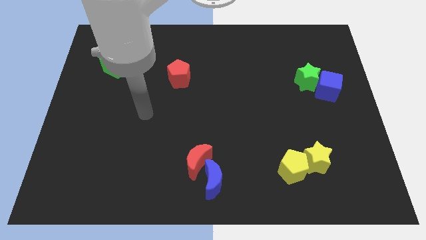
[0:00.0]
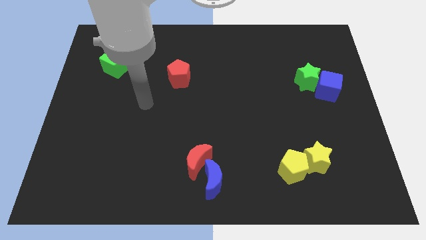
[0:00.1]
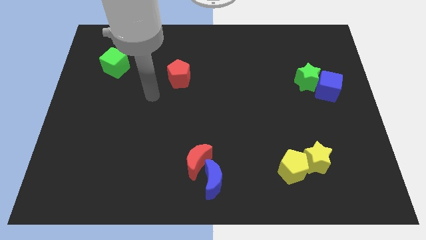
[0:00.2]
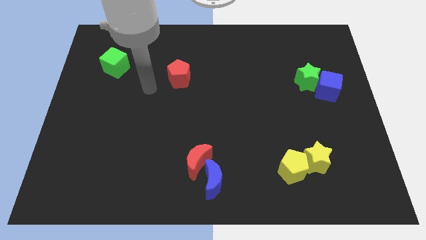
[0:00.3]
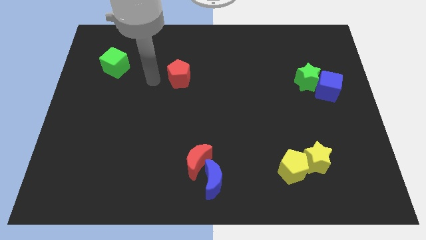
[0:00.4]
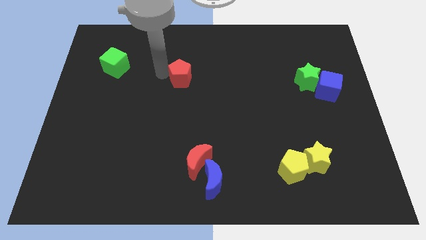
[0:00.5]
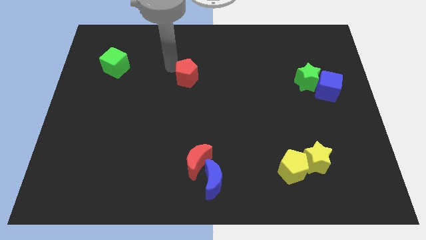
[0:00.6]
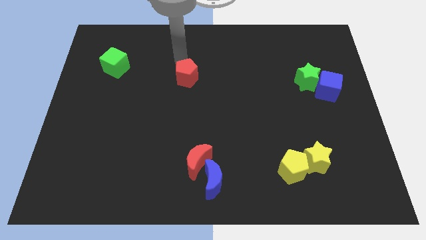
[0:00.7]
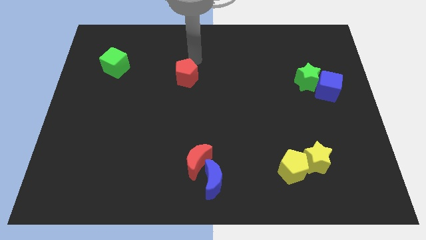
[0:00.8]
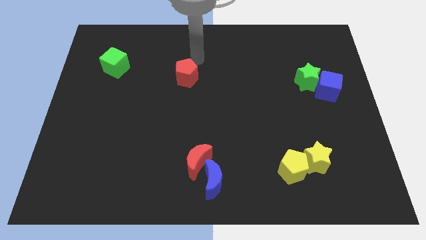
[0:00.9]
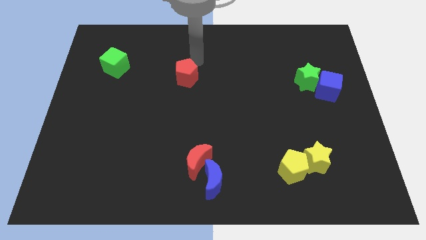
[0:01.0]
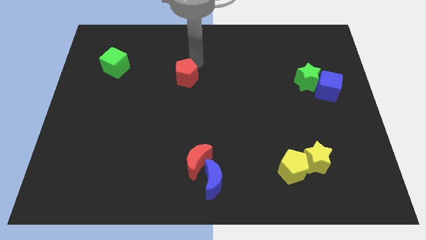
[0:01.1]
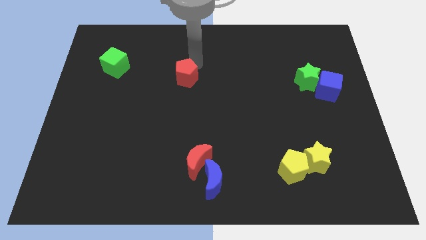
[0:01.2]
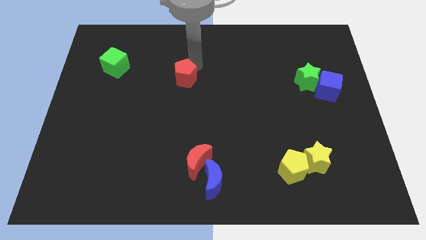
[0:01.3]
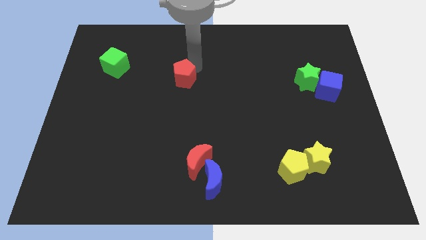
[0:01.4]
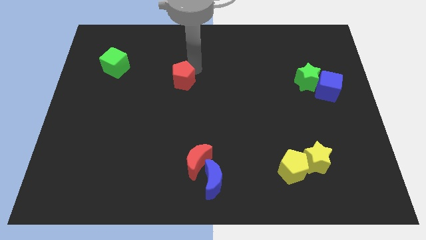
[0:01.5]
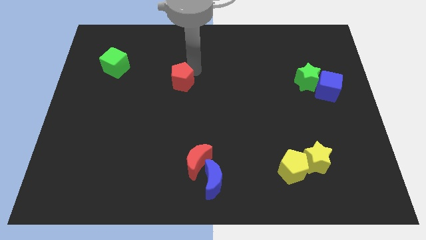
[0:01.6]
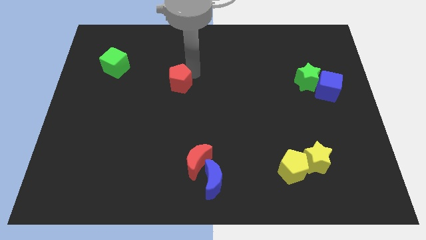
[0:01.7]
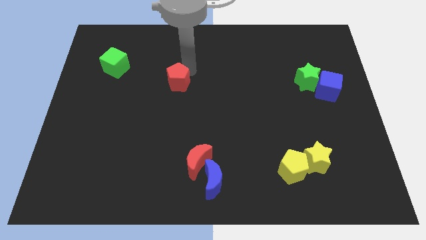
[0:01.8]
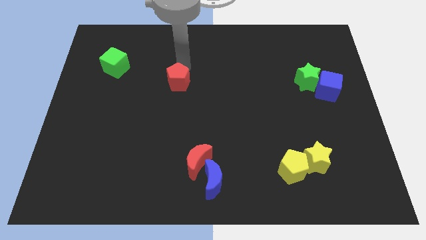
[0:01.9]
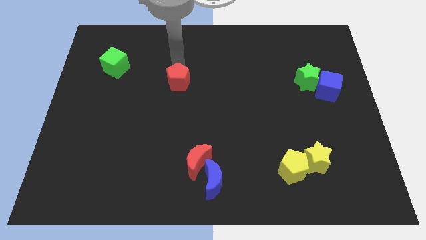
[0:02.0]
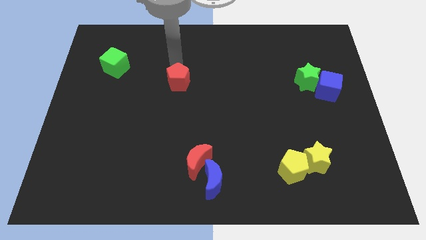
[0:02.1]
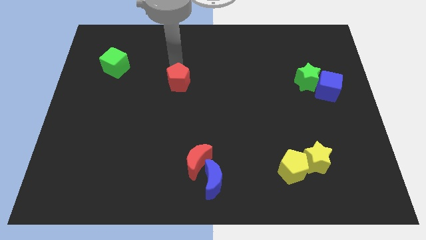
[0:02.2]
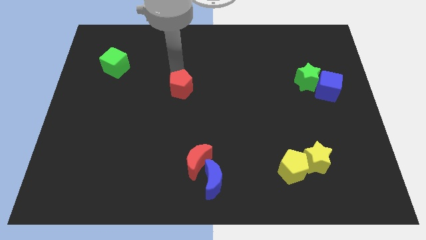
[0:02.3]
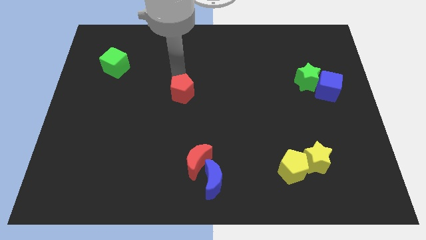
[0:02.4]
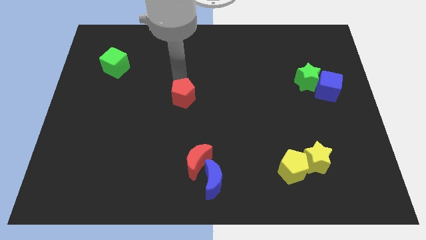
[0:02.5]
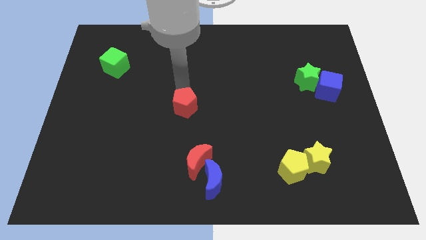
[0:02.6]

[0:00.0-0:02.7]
push the red pentagon somewhat downwards

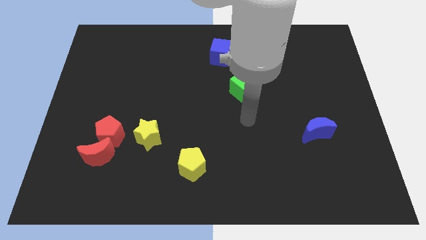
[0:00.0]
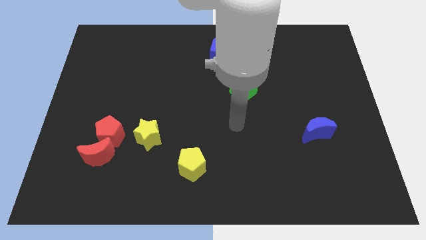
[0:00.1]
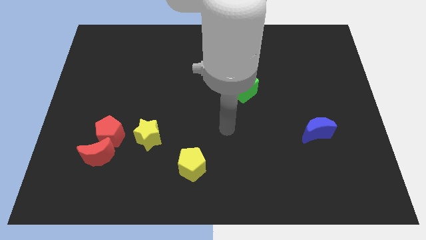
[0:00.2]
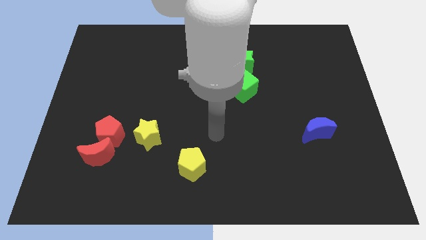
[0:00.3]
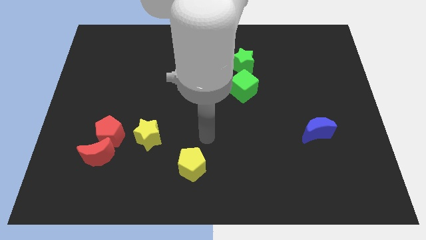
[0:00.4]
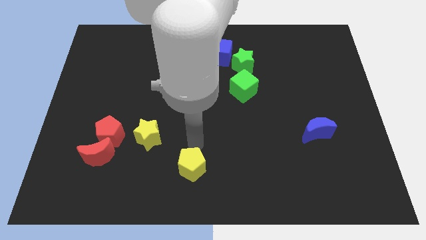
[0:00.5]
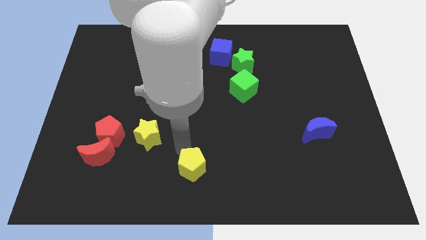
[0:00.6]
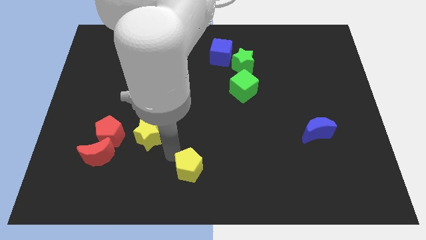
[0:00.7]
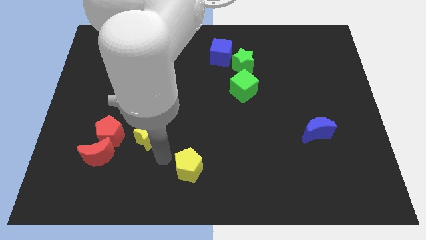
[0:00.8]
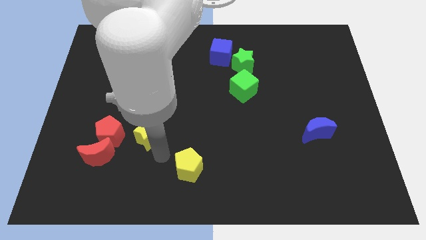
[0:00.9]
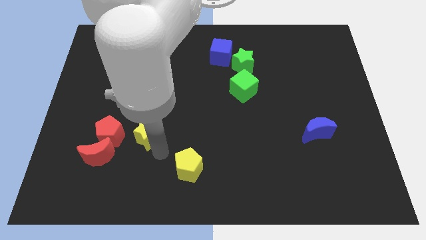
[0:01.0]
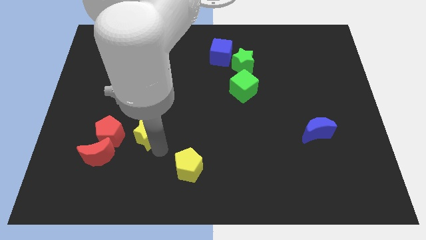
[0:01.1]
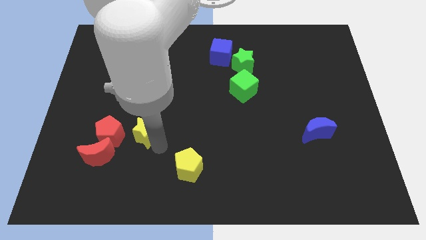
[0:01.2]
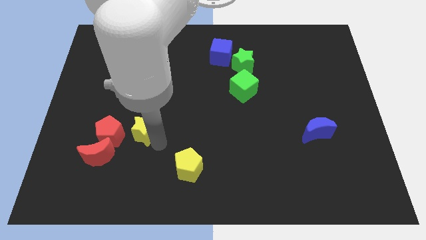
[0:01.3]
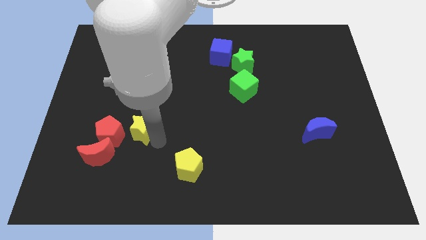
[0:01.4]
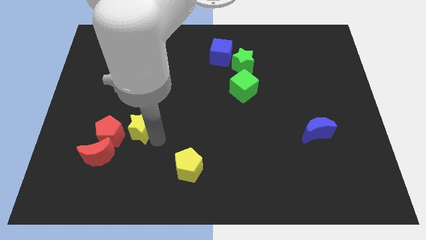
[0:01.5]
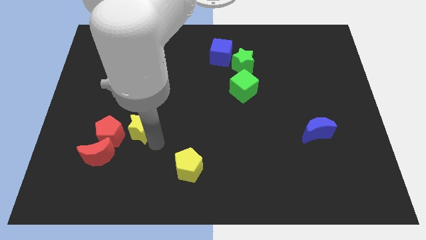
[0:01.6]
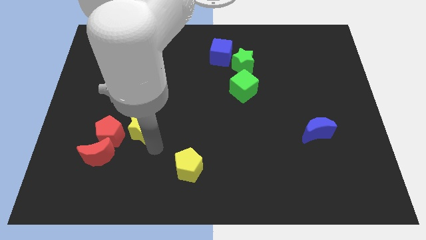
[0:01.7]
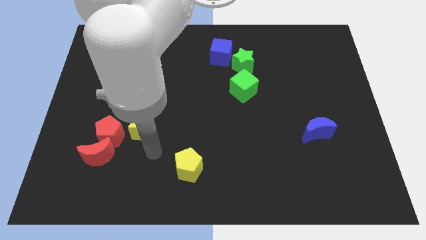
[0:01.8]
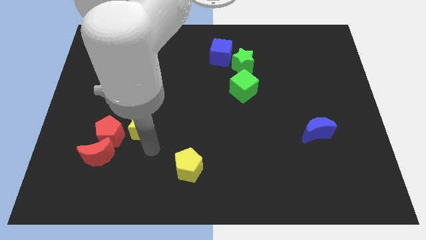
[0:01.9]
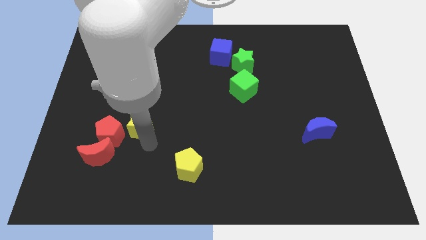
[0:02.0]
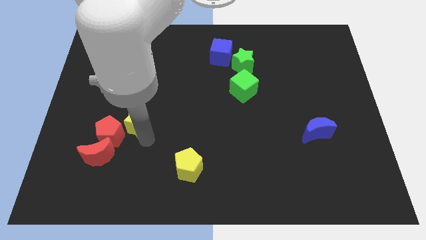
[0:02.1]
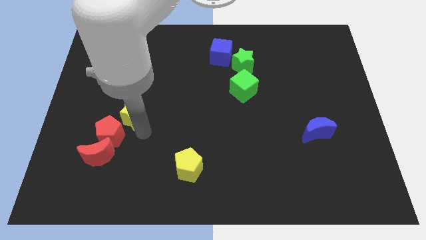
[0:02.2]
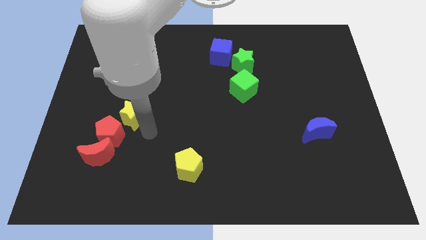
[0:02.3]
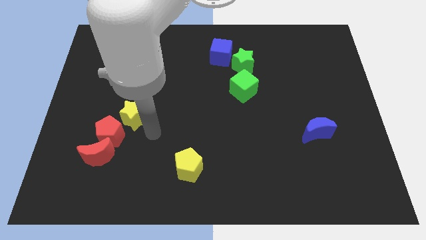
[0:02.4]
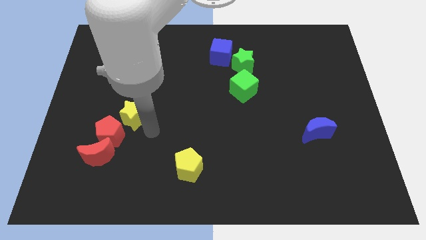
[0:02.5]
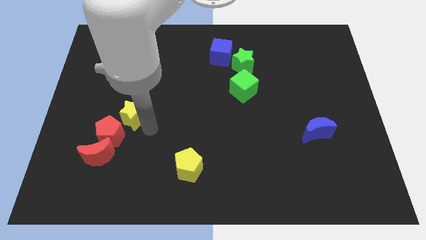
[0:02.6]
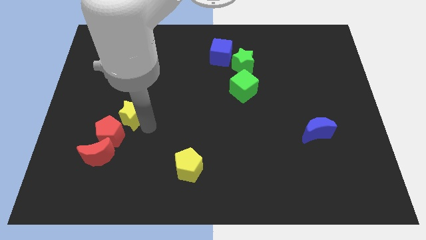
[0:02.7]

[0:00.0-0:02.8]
slide the yellow star a little bit diagonally upwards and left

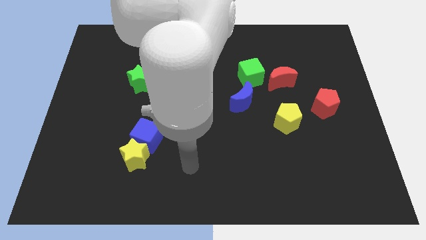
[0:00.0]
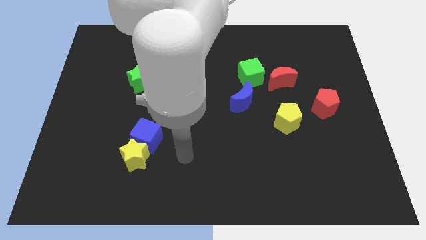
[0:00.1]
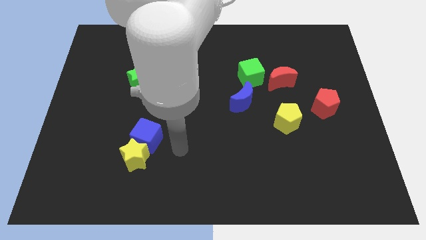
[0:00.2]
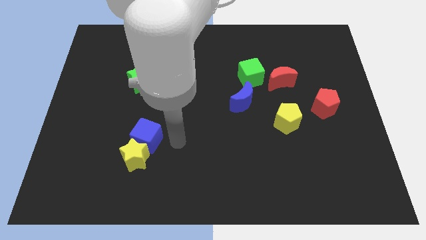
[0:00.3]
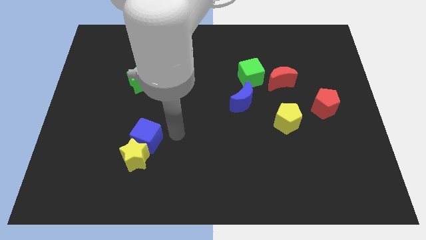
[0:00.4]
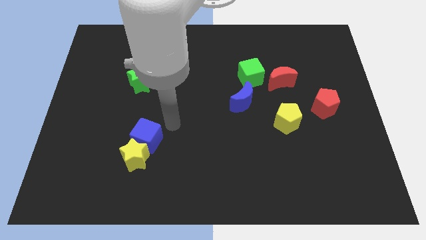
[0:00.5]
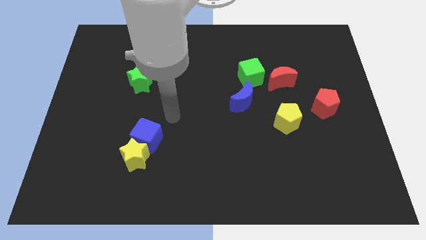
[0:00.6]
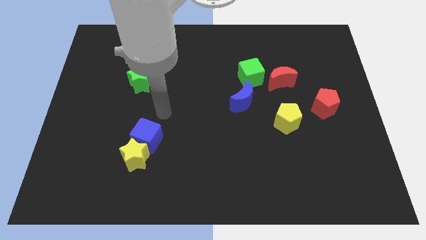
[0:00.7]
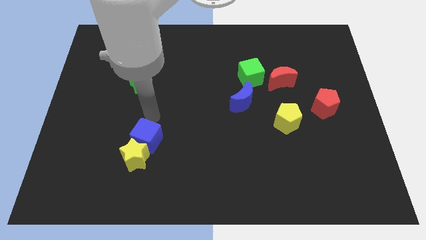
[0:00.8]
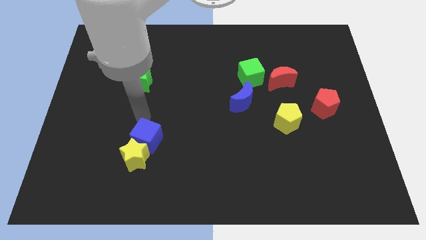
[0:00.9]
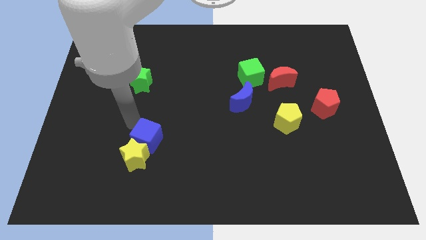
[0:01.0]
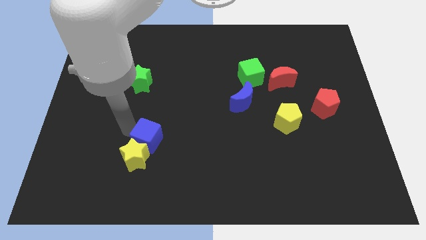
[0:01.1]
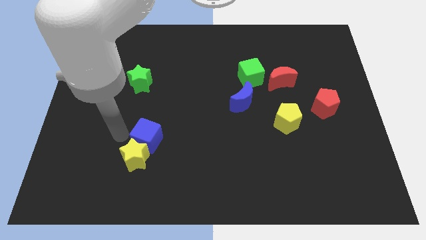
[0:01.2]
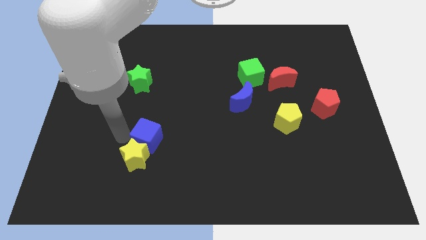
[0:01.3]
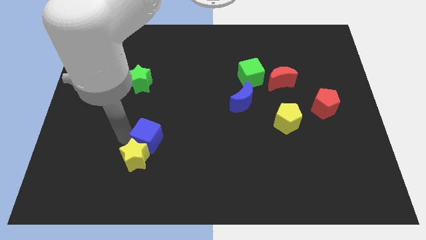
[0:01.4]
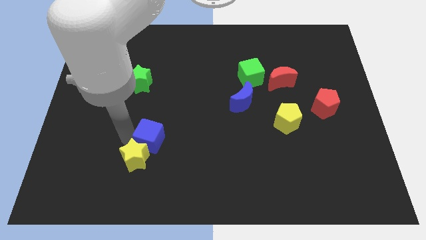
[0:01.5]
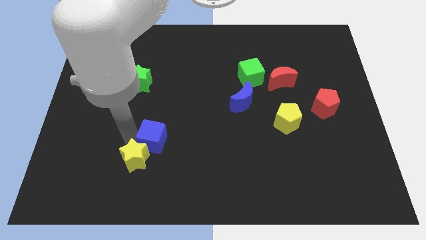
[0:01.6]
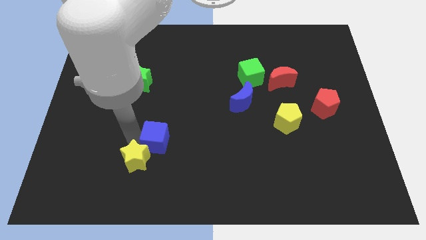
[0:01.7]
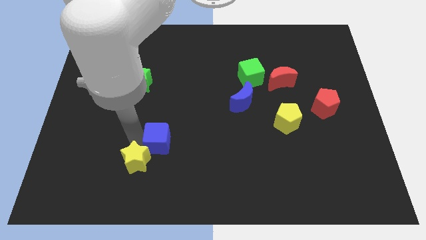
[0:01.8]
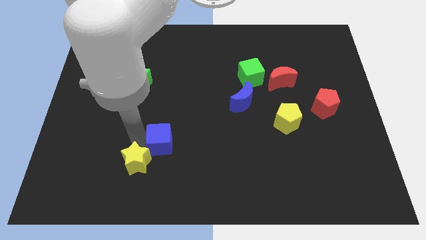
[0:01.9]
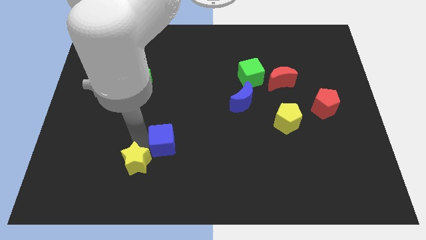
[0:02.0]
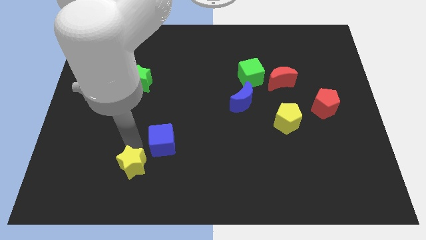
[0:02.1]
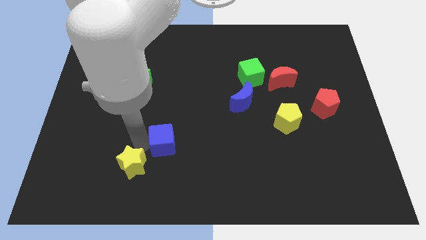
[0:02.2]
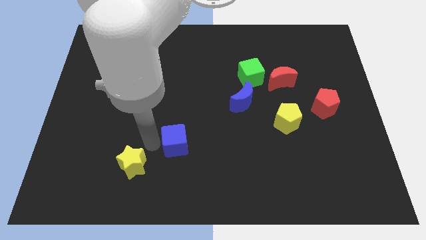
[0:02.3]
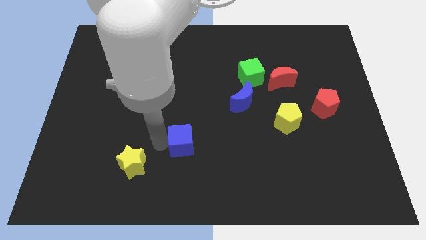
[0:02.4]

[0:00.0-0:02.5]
slightly move the blue cube to the right
